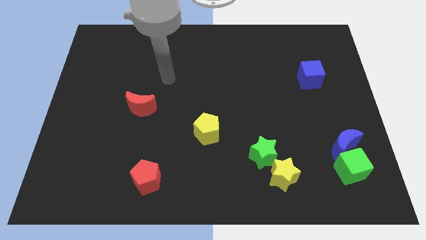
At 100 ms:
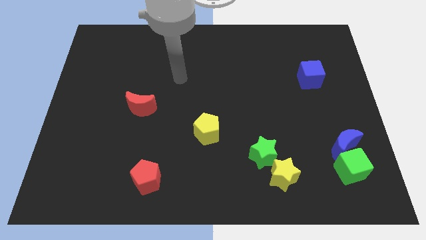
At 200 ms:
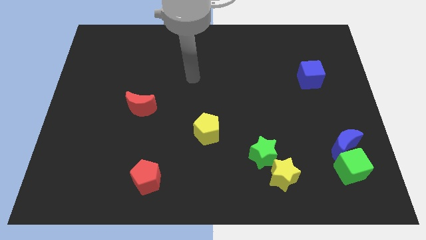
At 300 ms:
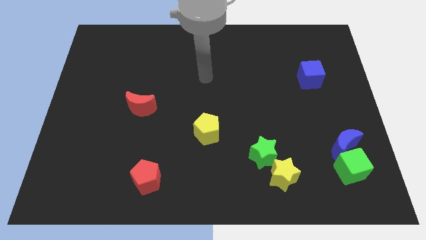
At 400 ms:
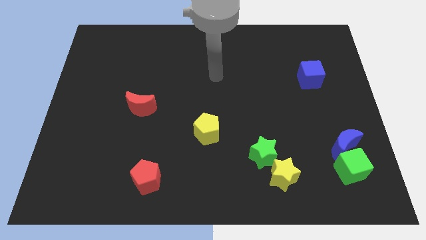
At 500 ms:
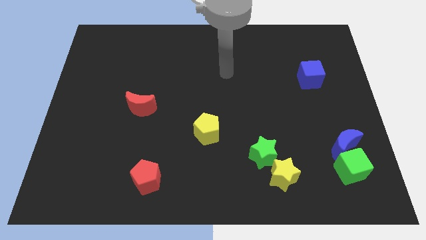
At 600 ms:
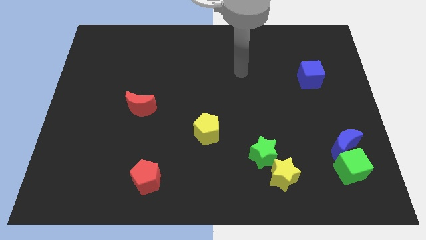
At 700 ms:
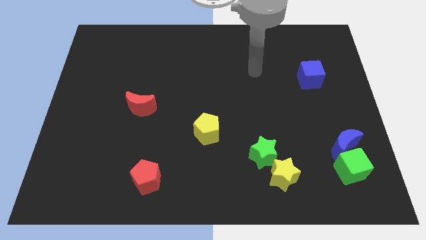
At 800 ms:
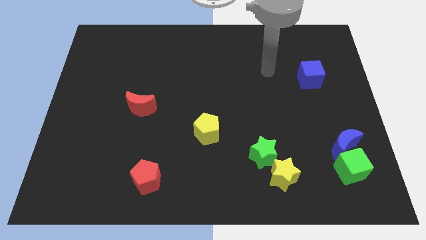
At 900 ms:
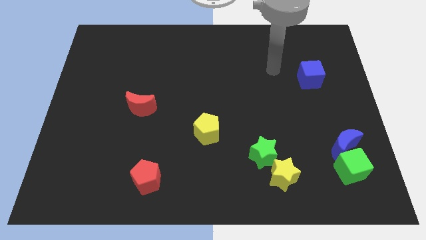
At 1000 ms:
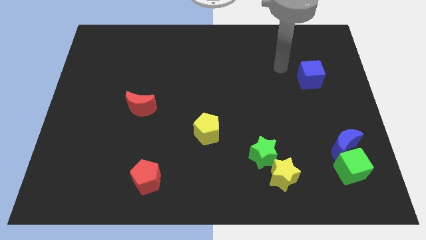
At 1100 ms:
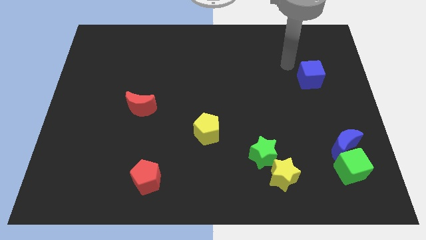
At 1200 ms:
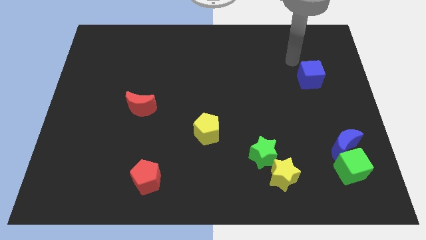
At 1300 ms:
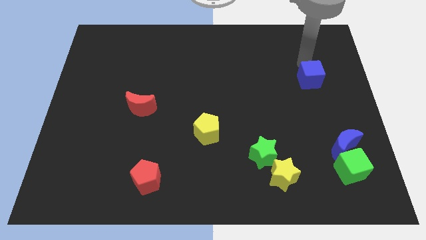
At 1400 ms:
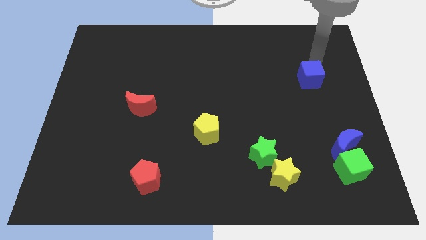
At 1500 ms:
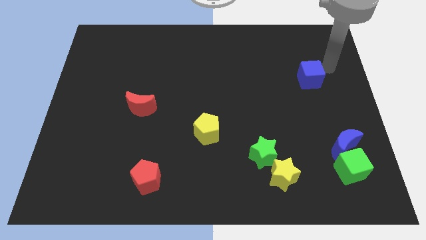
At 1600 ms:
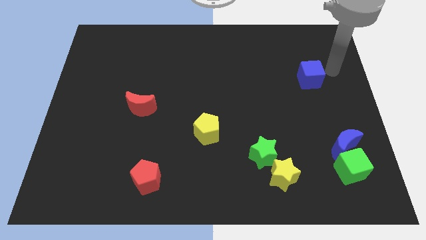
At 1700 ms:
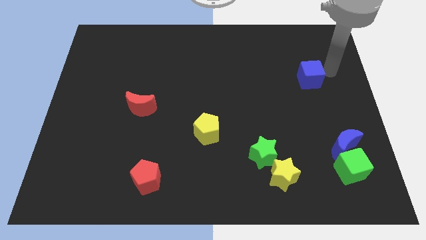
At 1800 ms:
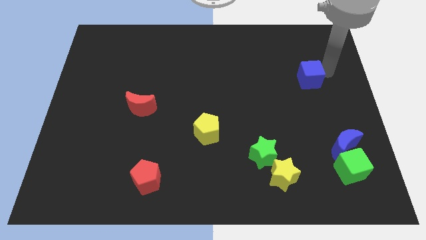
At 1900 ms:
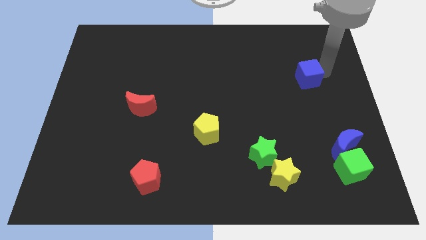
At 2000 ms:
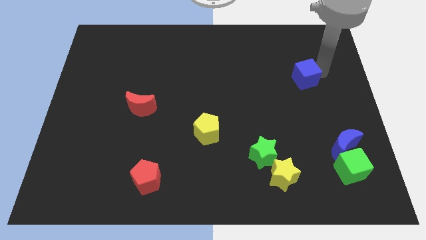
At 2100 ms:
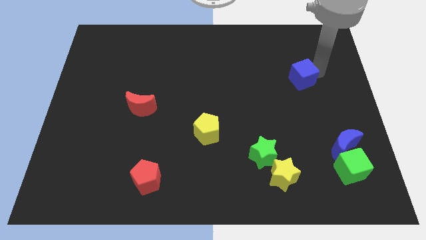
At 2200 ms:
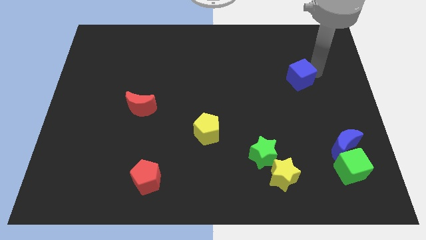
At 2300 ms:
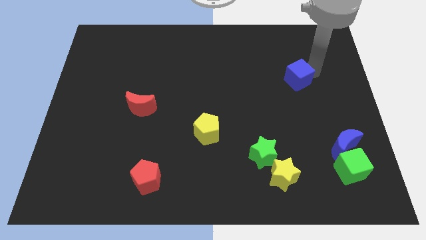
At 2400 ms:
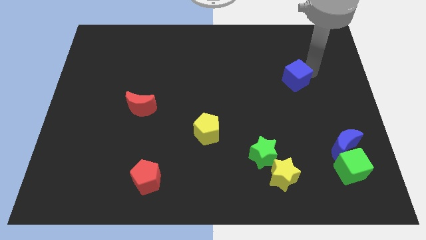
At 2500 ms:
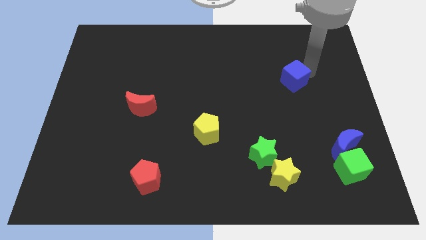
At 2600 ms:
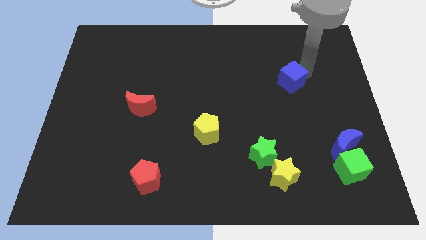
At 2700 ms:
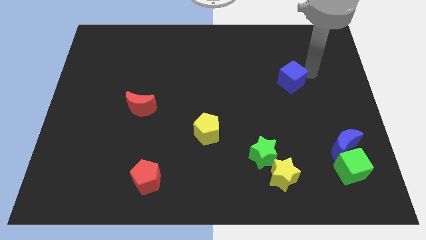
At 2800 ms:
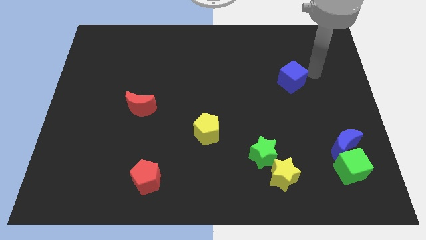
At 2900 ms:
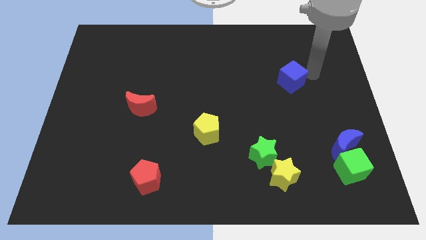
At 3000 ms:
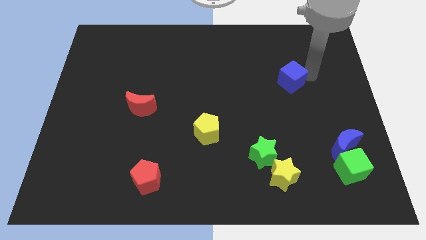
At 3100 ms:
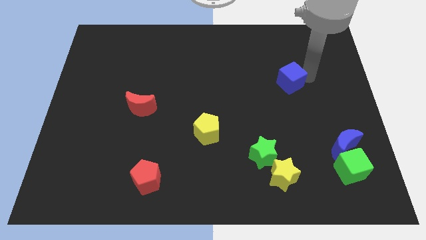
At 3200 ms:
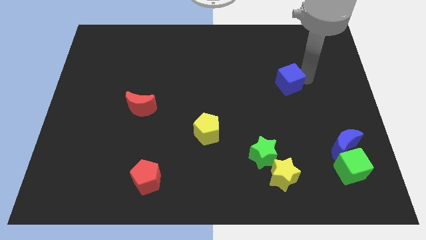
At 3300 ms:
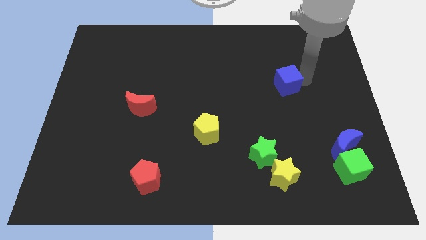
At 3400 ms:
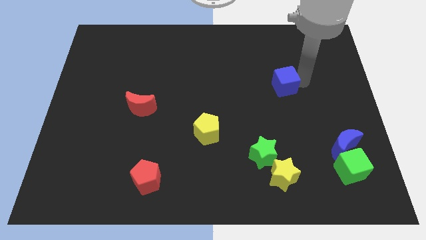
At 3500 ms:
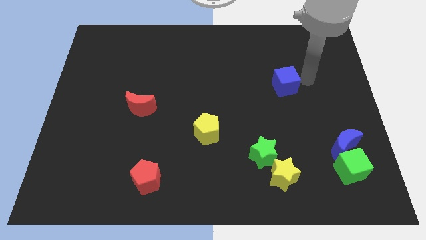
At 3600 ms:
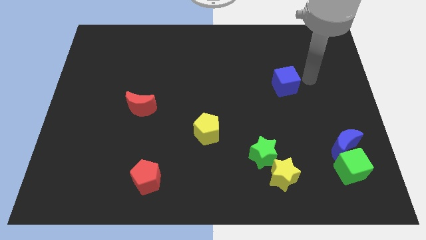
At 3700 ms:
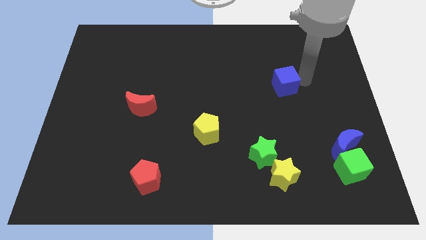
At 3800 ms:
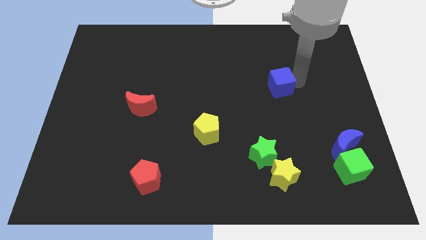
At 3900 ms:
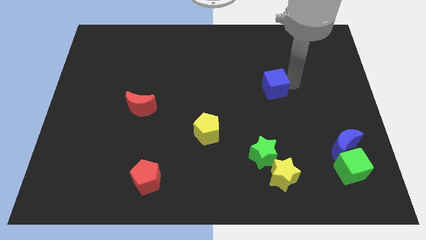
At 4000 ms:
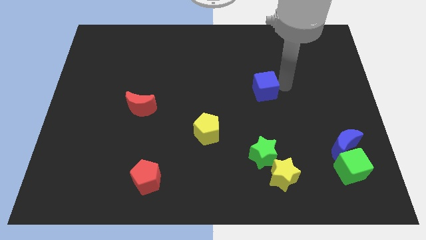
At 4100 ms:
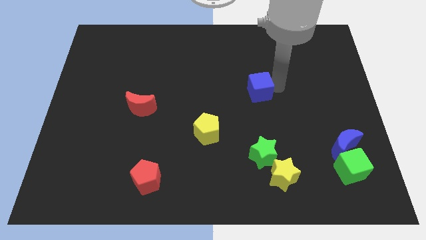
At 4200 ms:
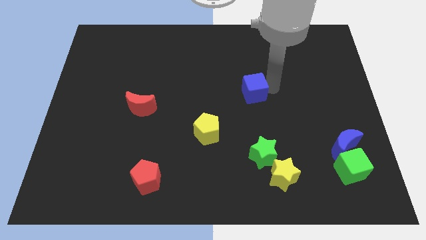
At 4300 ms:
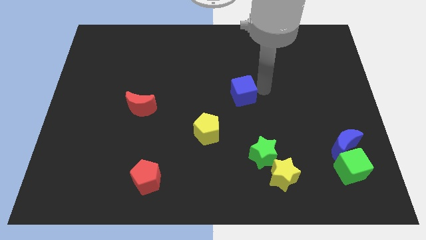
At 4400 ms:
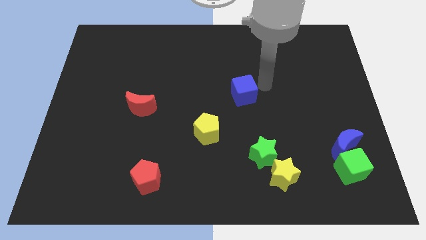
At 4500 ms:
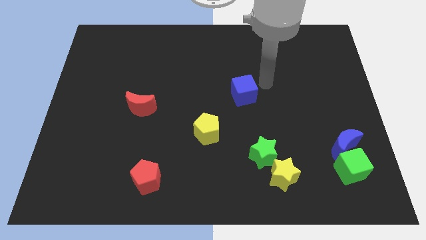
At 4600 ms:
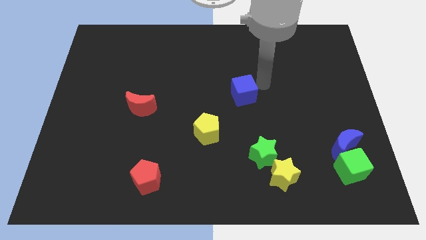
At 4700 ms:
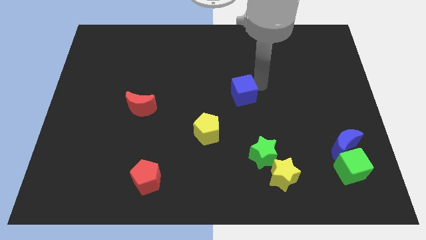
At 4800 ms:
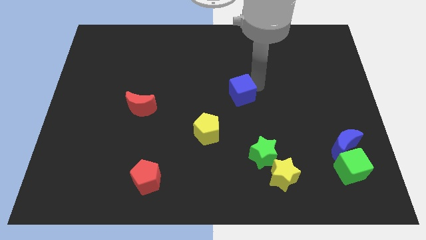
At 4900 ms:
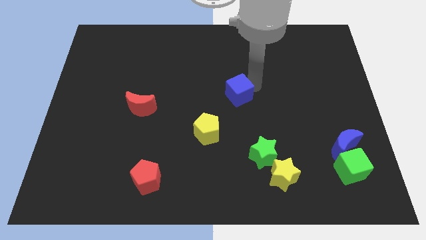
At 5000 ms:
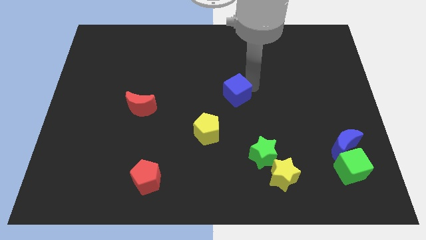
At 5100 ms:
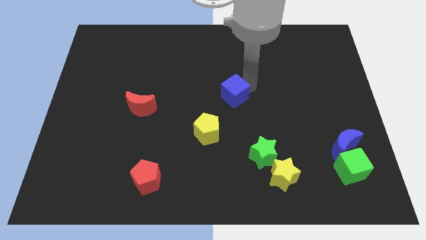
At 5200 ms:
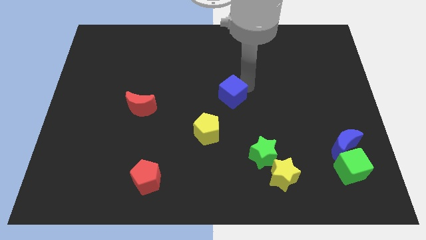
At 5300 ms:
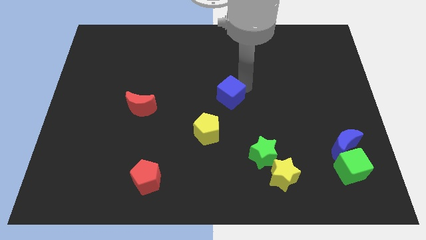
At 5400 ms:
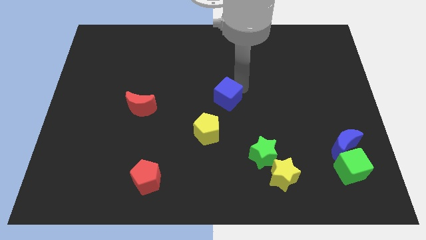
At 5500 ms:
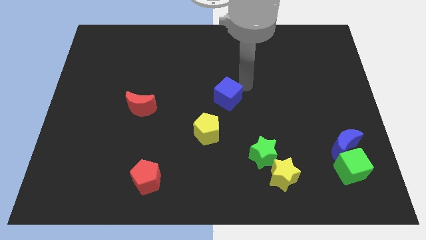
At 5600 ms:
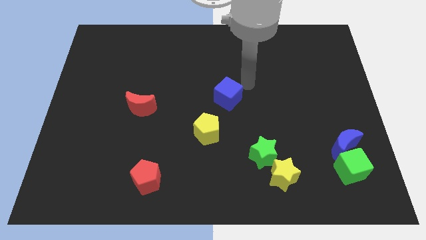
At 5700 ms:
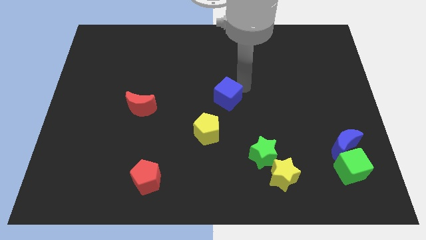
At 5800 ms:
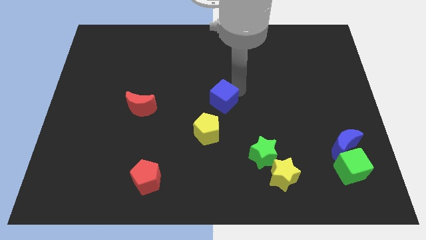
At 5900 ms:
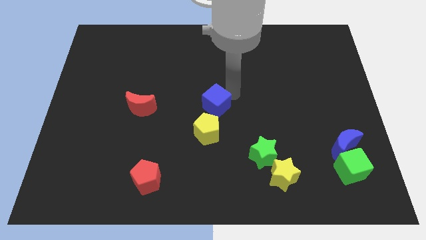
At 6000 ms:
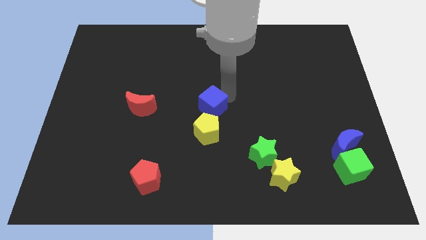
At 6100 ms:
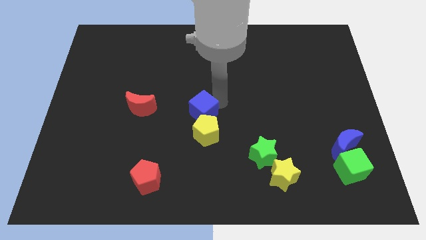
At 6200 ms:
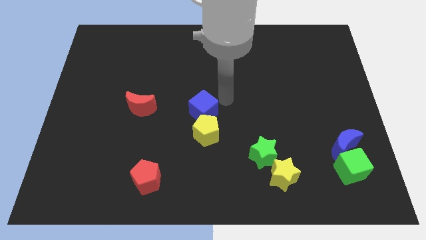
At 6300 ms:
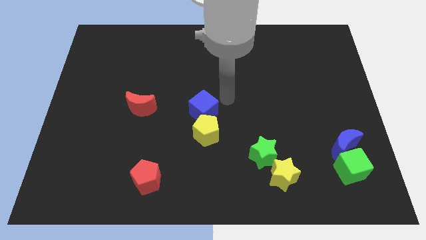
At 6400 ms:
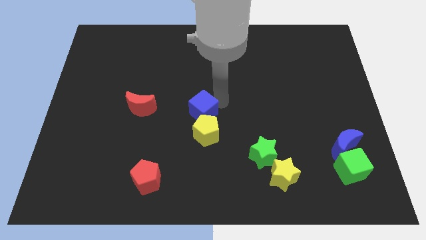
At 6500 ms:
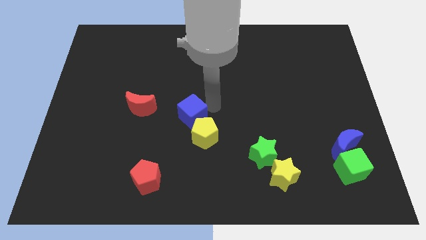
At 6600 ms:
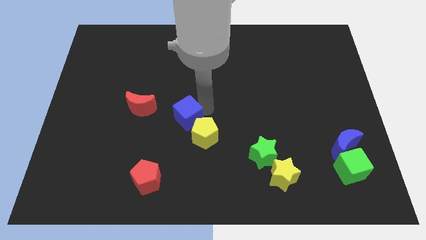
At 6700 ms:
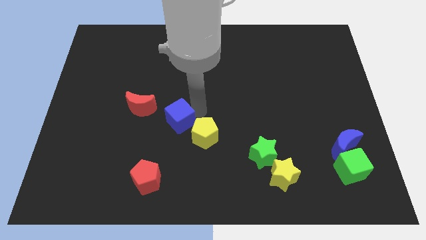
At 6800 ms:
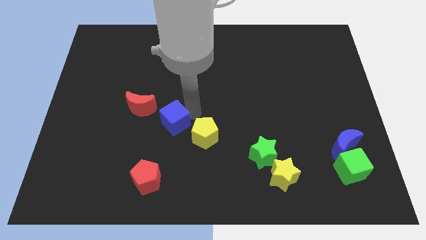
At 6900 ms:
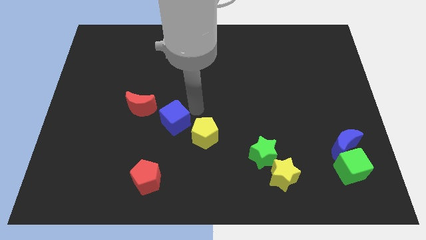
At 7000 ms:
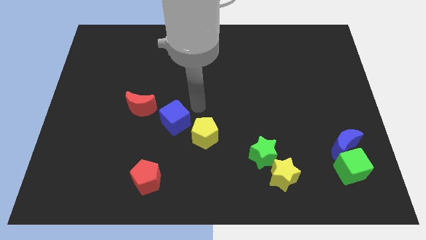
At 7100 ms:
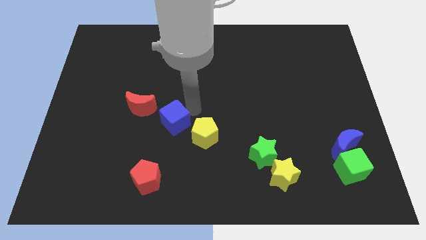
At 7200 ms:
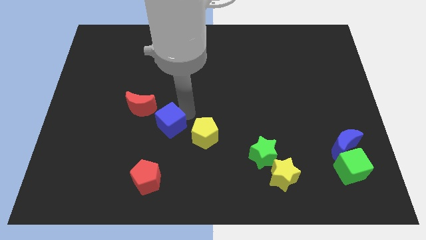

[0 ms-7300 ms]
put the blue cube to the top of the red pentagon

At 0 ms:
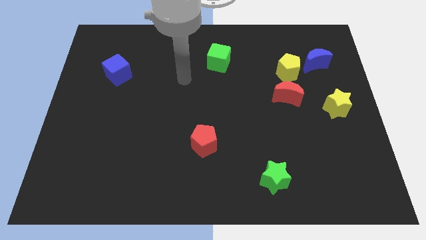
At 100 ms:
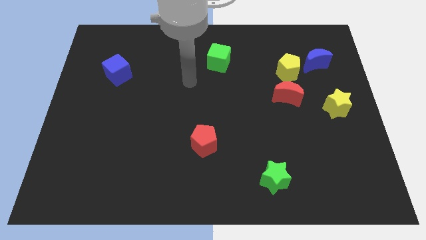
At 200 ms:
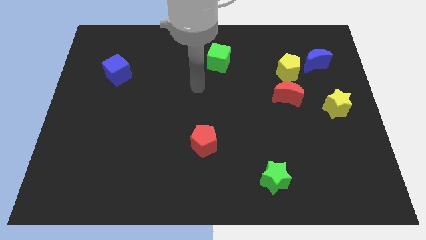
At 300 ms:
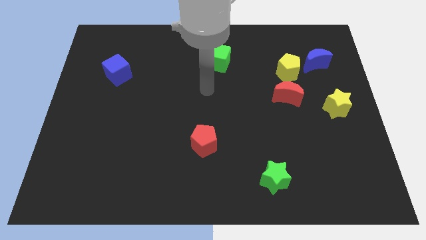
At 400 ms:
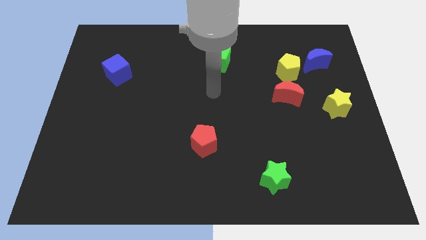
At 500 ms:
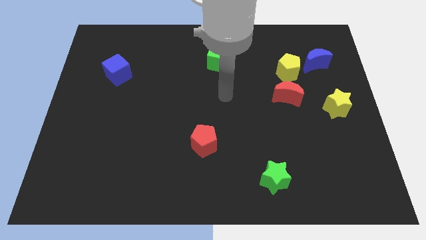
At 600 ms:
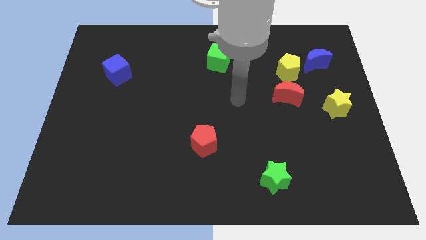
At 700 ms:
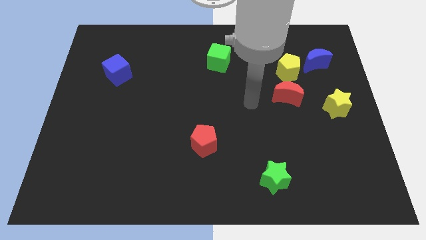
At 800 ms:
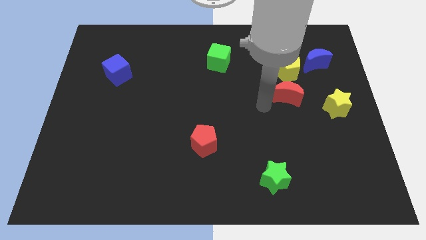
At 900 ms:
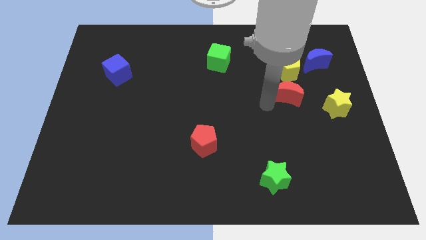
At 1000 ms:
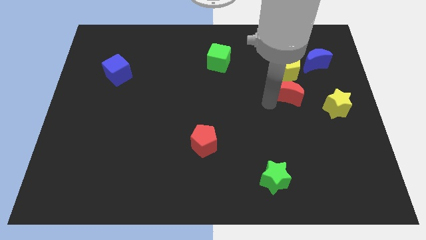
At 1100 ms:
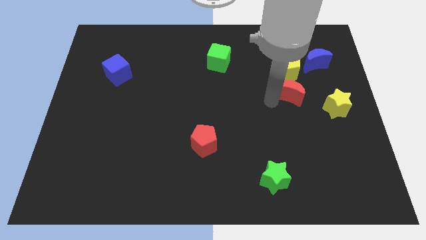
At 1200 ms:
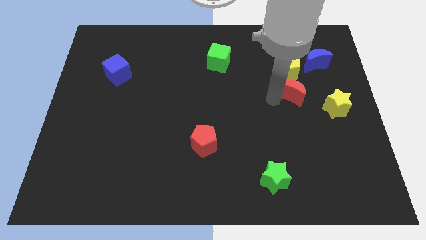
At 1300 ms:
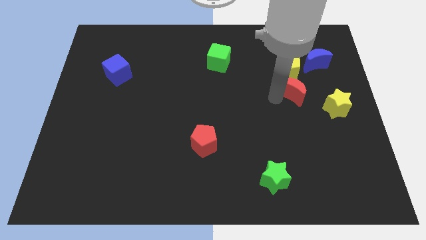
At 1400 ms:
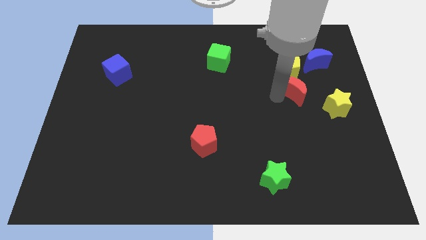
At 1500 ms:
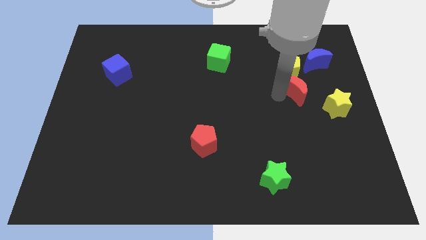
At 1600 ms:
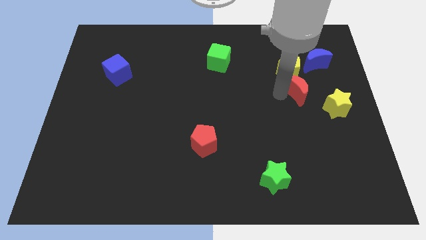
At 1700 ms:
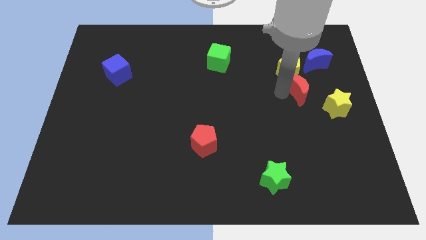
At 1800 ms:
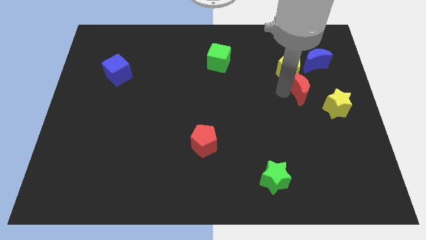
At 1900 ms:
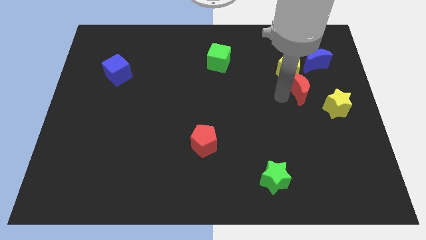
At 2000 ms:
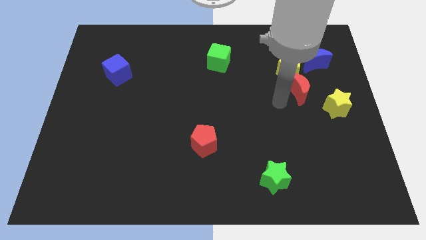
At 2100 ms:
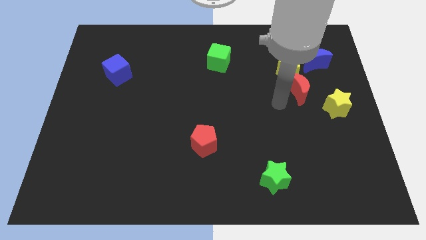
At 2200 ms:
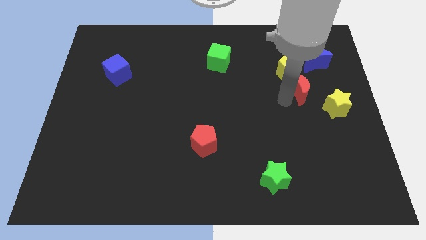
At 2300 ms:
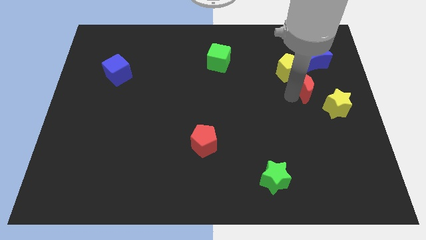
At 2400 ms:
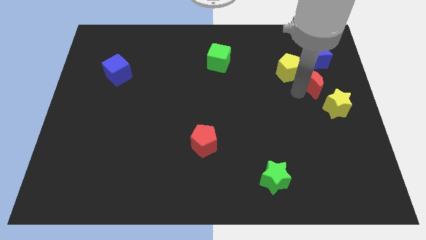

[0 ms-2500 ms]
push the red moon to the top of the yellow star
